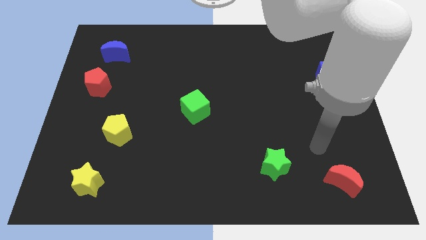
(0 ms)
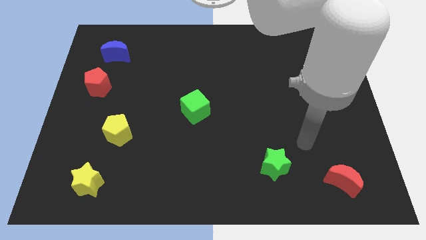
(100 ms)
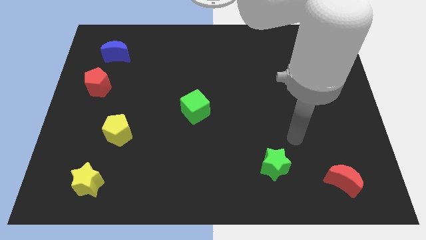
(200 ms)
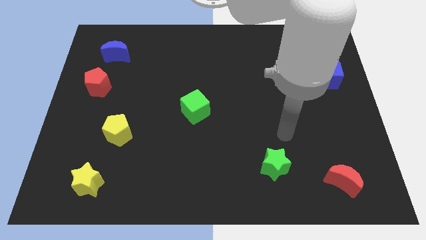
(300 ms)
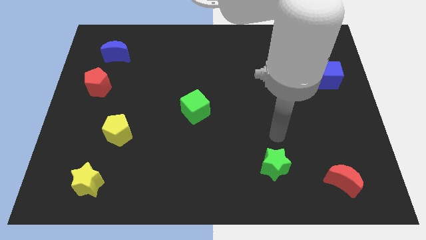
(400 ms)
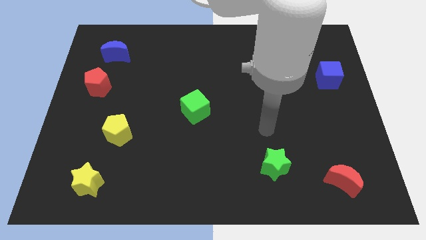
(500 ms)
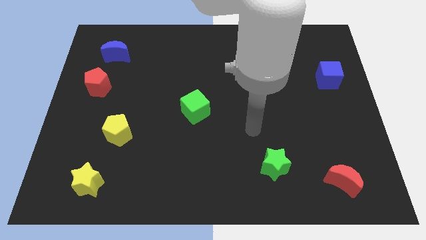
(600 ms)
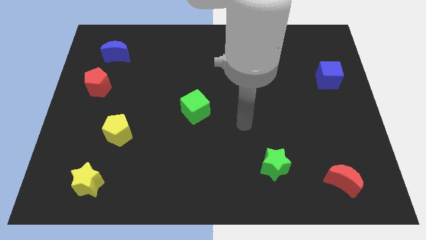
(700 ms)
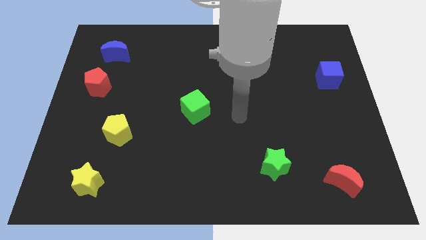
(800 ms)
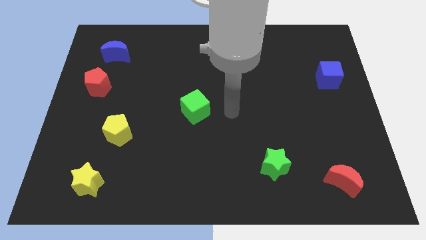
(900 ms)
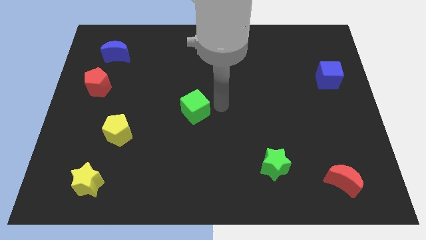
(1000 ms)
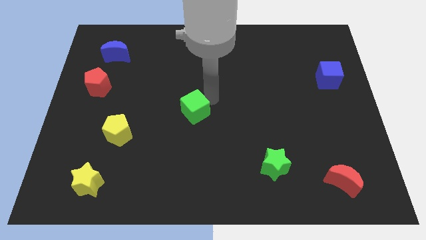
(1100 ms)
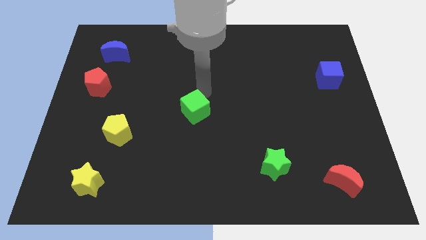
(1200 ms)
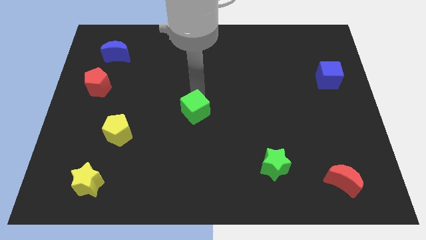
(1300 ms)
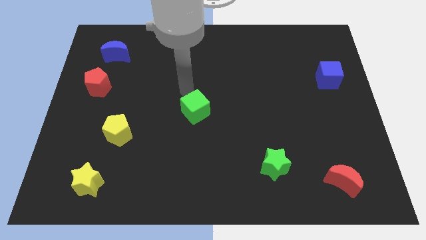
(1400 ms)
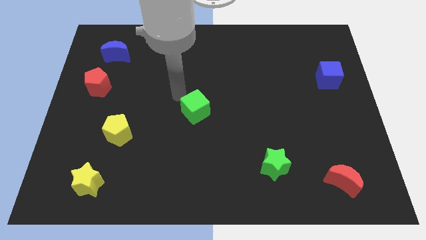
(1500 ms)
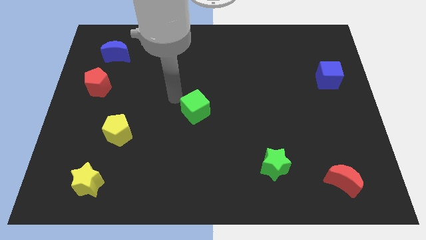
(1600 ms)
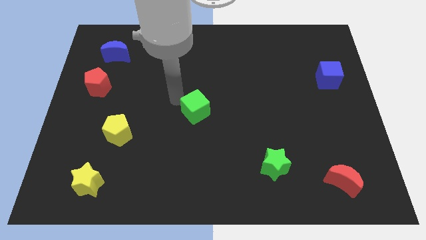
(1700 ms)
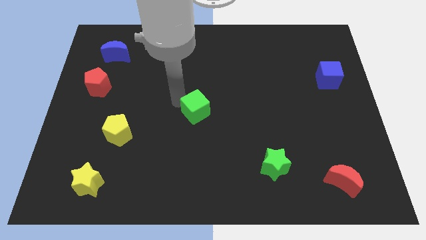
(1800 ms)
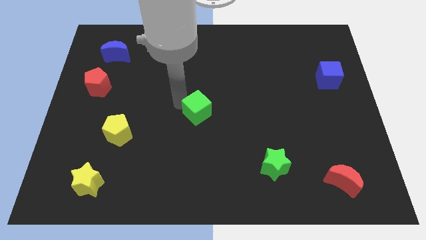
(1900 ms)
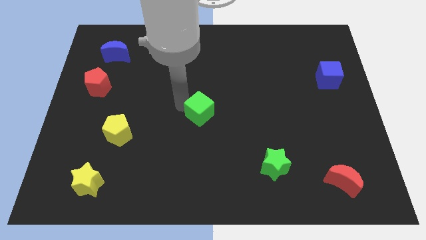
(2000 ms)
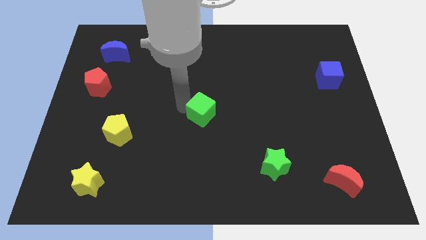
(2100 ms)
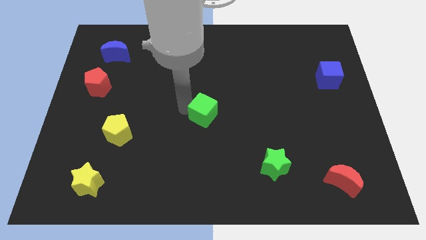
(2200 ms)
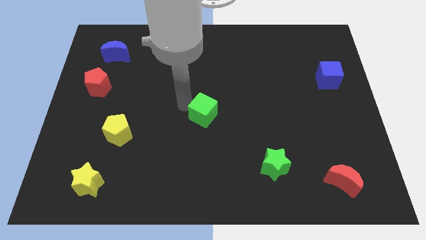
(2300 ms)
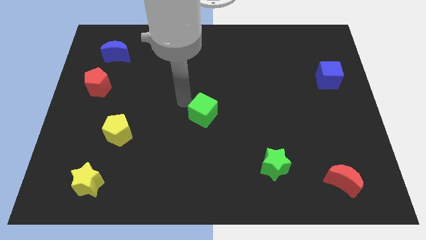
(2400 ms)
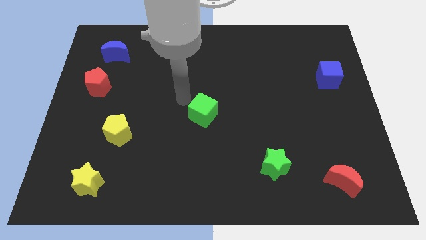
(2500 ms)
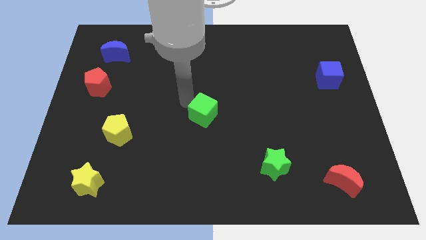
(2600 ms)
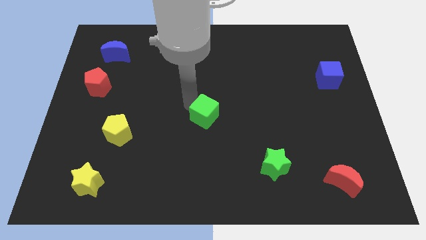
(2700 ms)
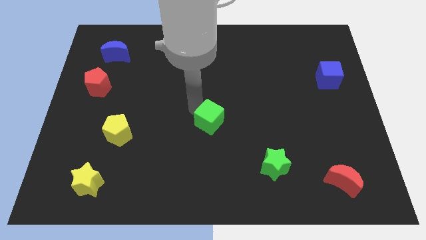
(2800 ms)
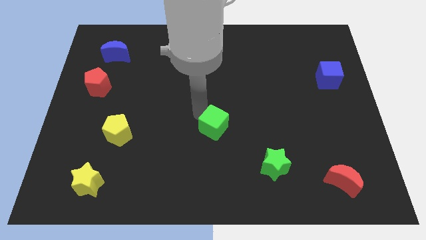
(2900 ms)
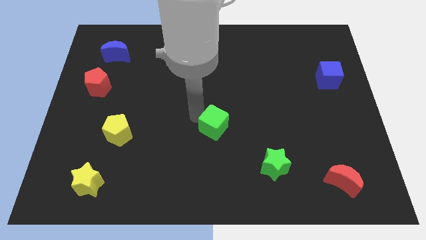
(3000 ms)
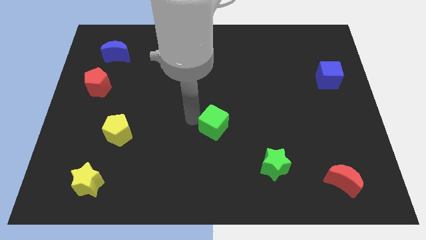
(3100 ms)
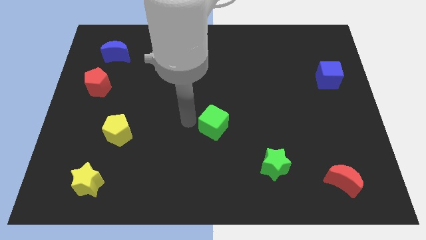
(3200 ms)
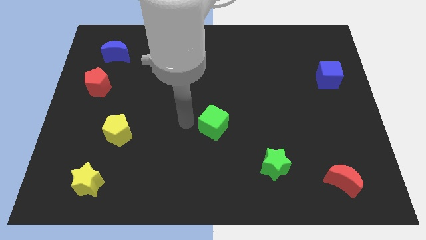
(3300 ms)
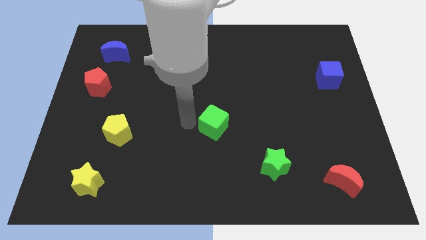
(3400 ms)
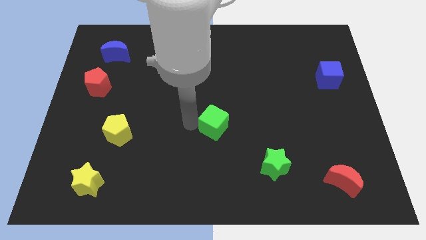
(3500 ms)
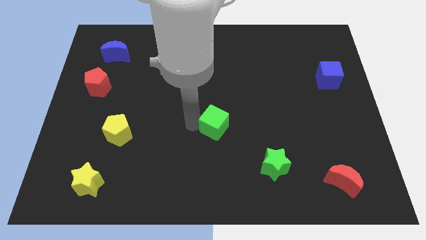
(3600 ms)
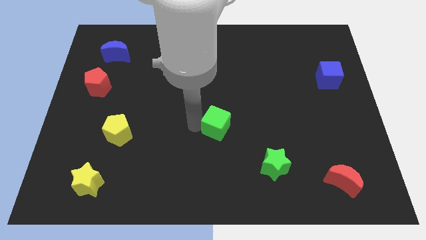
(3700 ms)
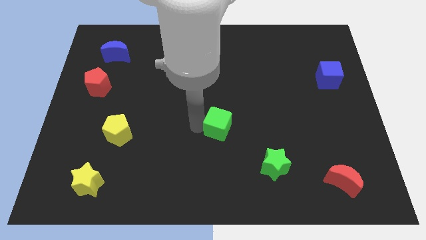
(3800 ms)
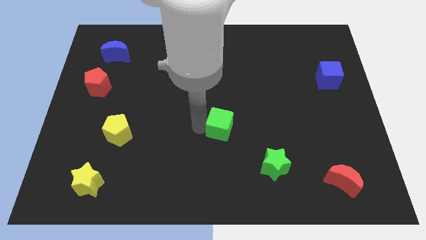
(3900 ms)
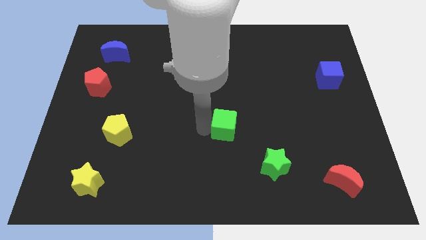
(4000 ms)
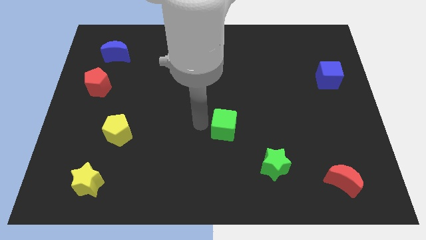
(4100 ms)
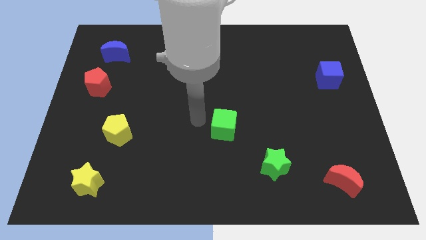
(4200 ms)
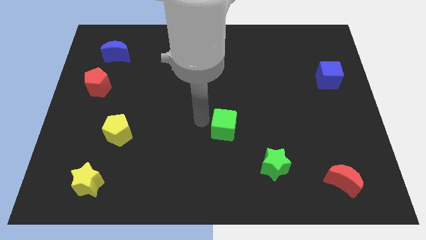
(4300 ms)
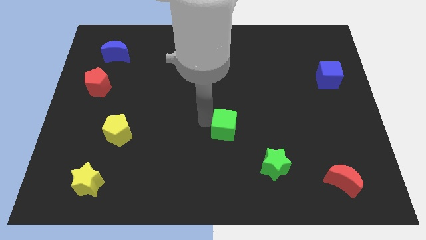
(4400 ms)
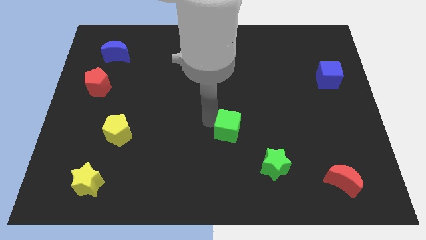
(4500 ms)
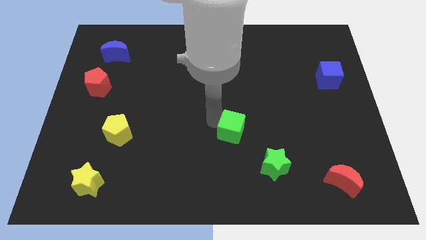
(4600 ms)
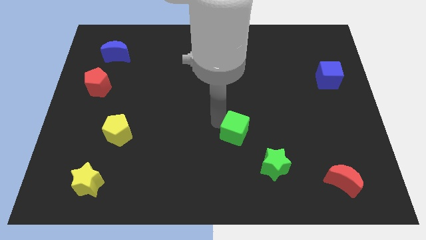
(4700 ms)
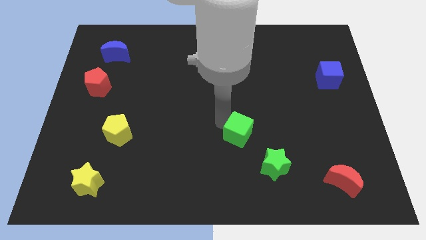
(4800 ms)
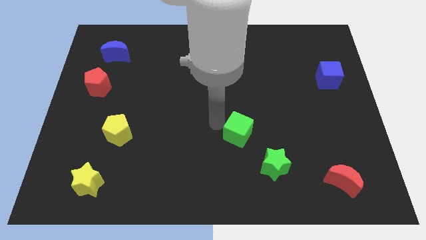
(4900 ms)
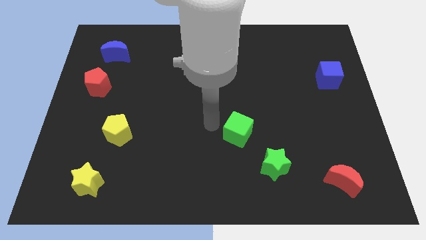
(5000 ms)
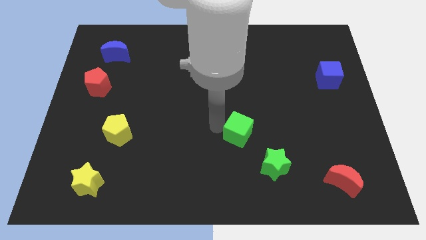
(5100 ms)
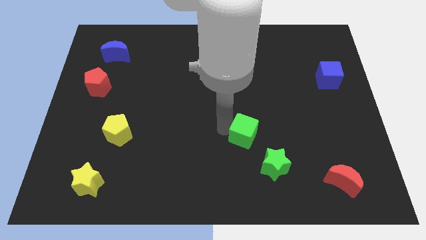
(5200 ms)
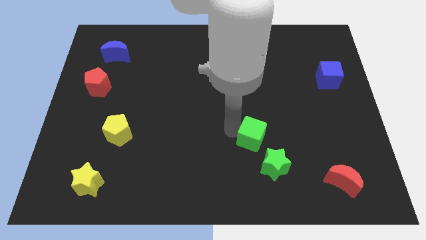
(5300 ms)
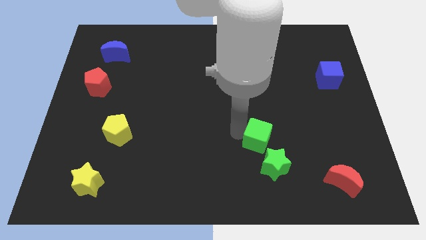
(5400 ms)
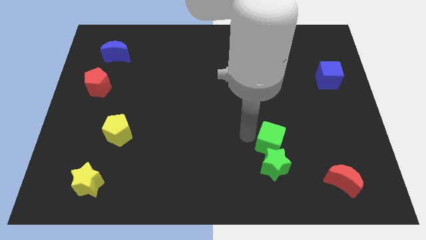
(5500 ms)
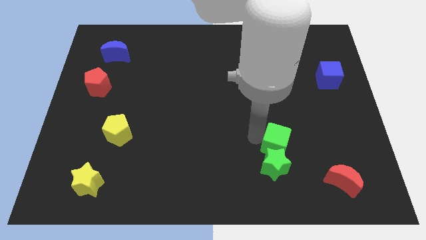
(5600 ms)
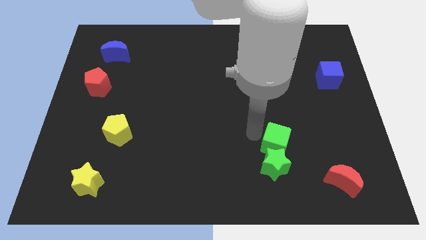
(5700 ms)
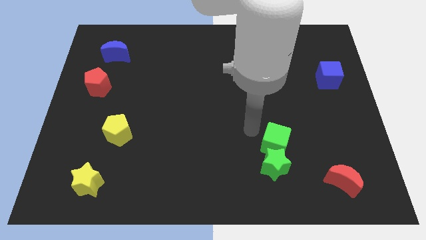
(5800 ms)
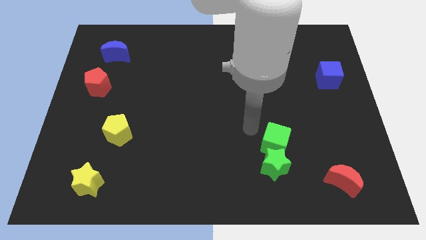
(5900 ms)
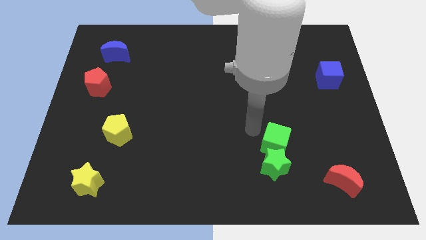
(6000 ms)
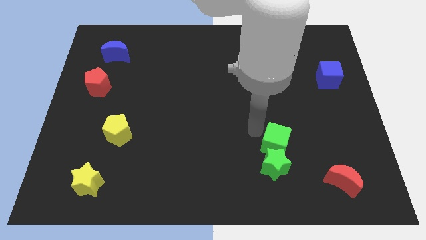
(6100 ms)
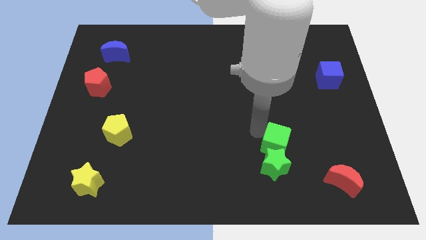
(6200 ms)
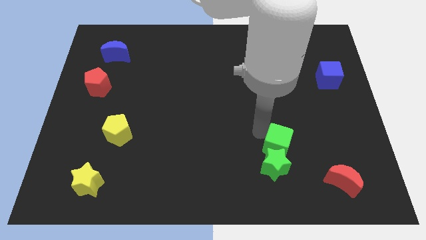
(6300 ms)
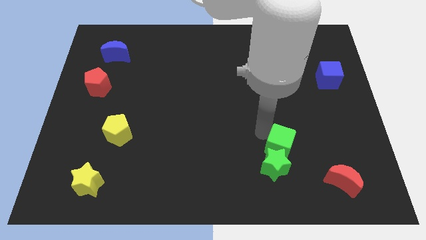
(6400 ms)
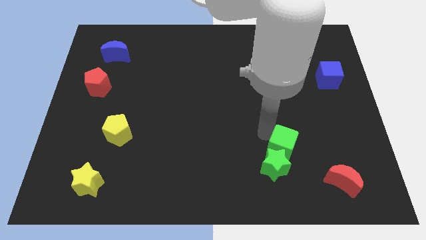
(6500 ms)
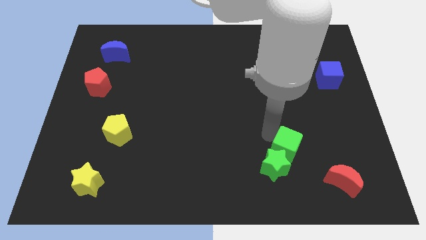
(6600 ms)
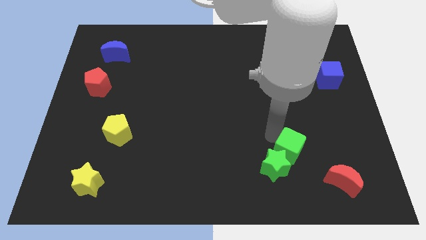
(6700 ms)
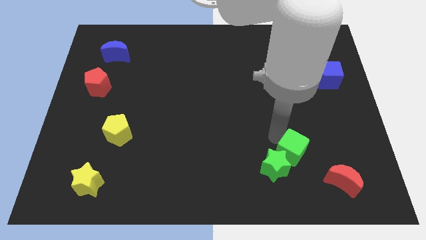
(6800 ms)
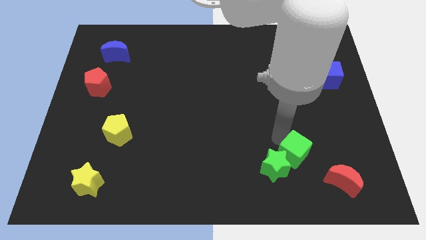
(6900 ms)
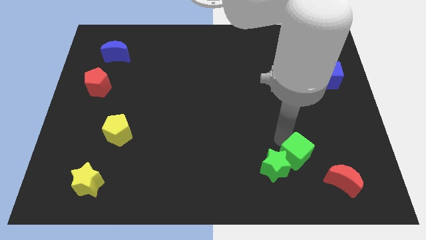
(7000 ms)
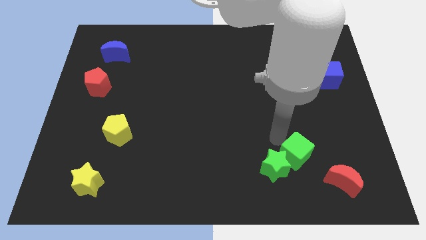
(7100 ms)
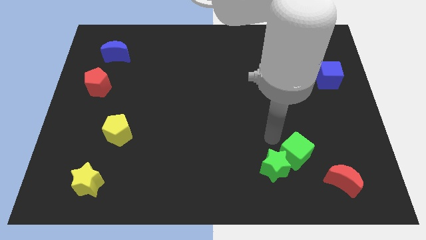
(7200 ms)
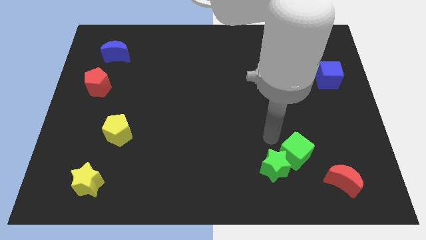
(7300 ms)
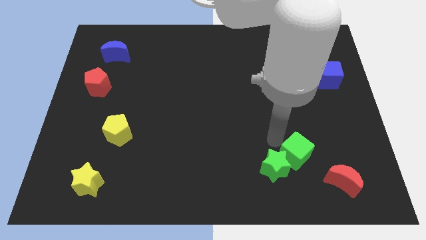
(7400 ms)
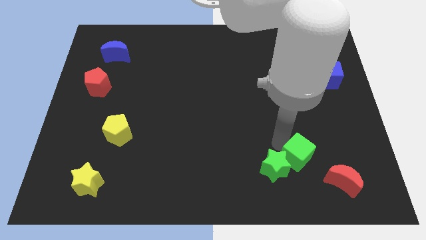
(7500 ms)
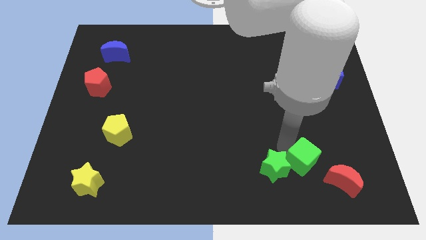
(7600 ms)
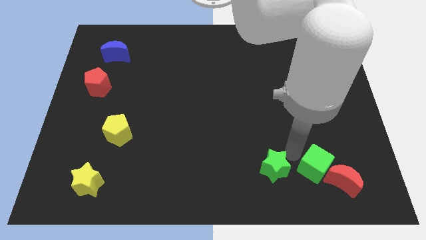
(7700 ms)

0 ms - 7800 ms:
put the green cube next to the red moon
